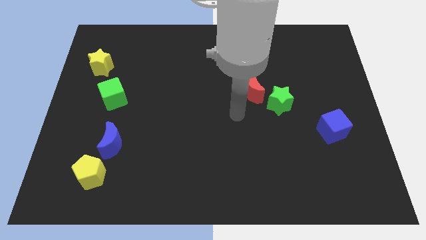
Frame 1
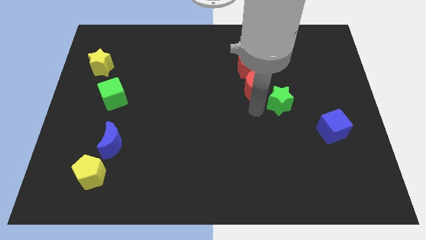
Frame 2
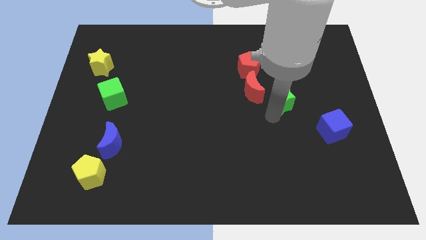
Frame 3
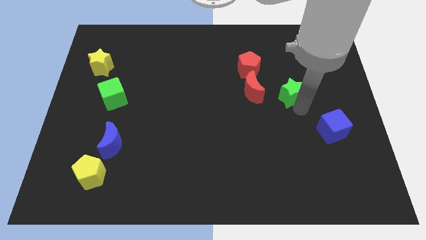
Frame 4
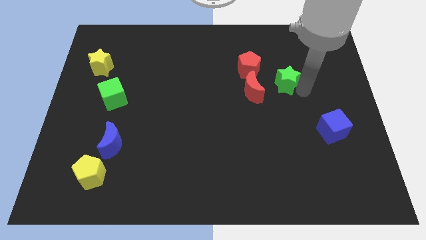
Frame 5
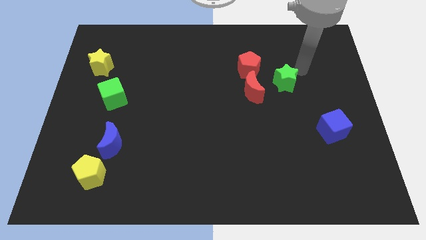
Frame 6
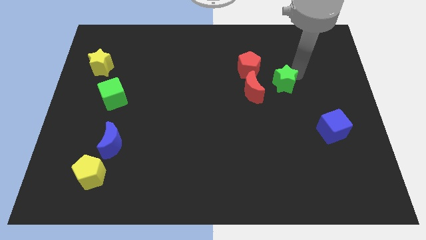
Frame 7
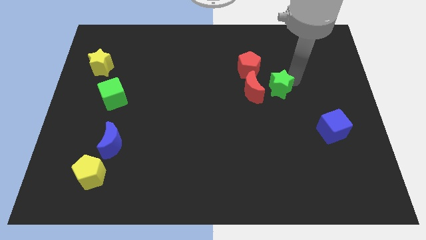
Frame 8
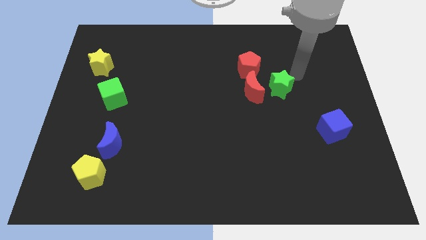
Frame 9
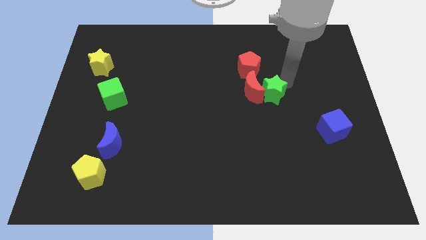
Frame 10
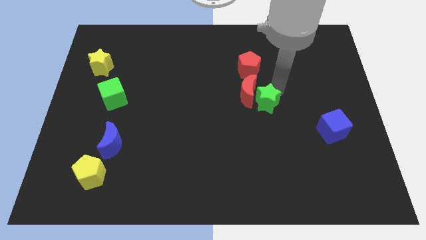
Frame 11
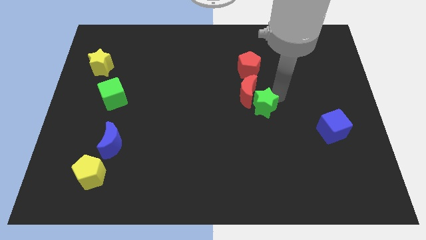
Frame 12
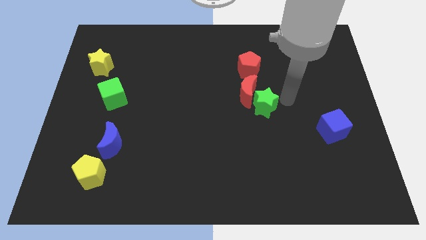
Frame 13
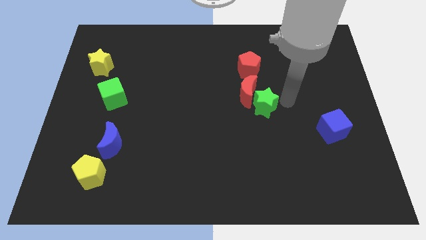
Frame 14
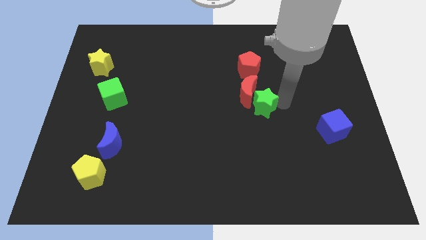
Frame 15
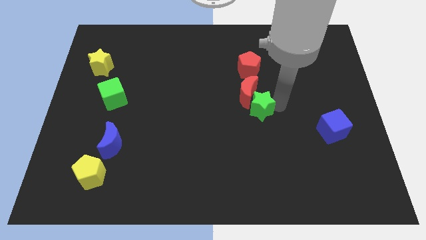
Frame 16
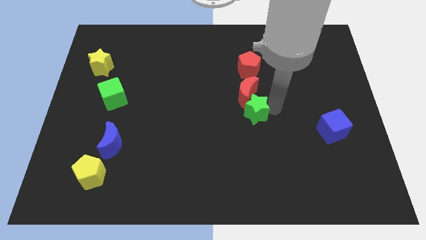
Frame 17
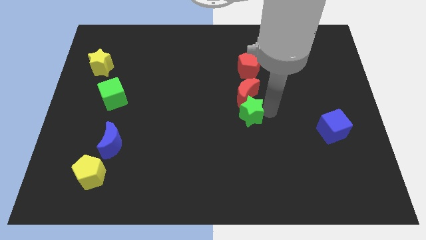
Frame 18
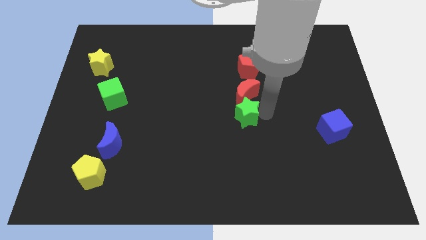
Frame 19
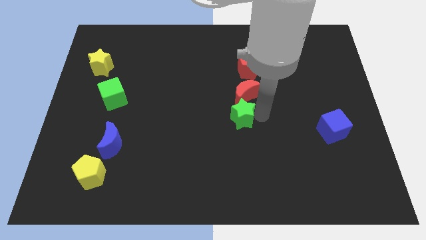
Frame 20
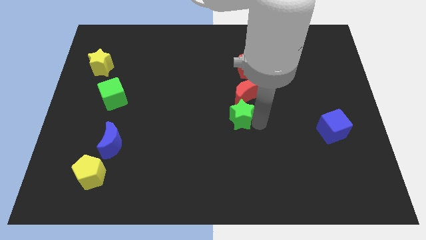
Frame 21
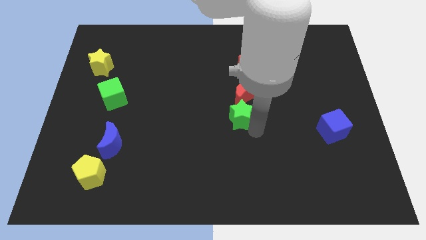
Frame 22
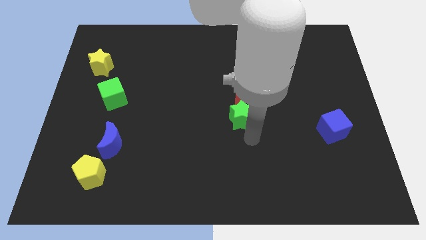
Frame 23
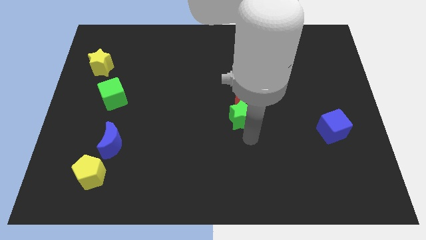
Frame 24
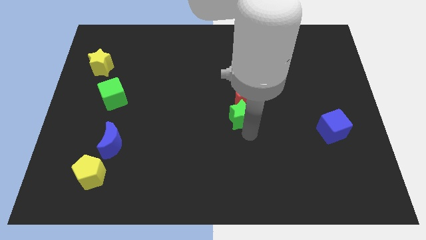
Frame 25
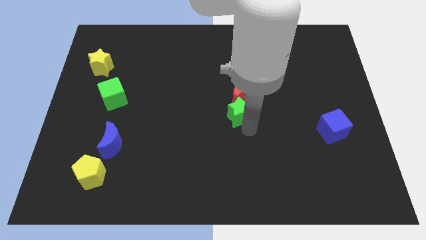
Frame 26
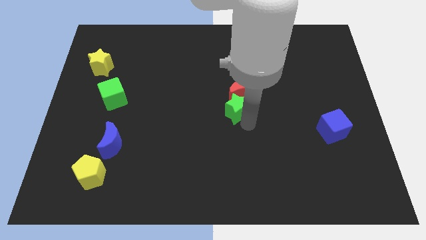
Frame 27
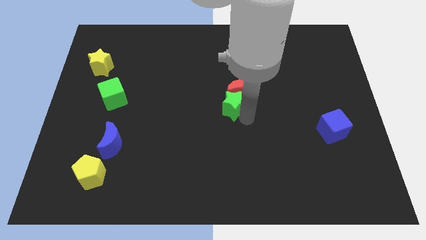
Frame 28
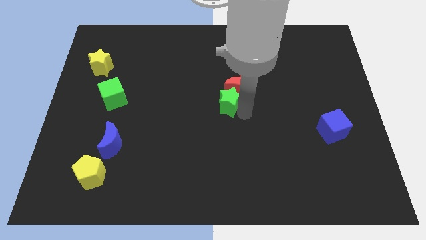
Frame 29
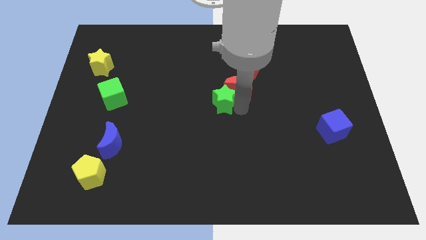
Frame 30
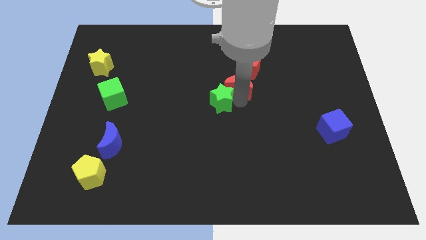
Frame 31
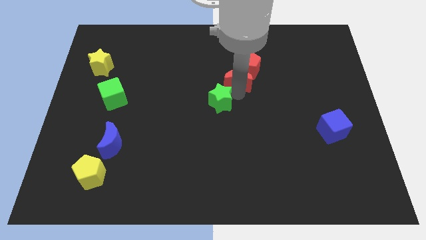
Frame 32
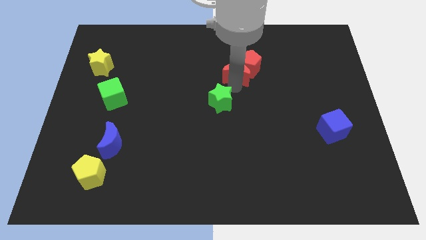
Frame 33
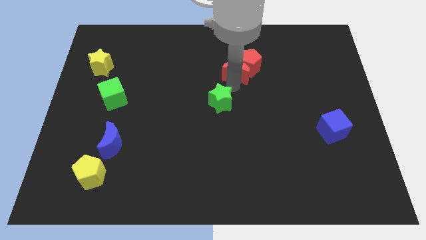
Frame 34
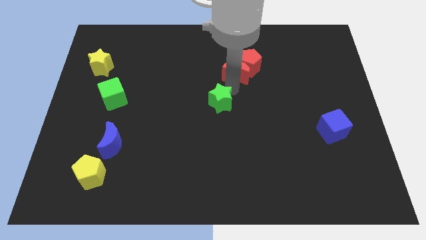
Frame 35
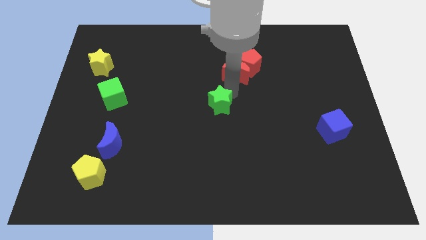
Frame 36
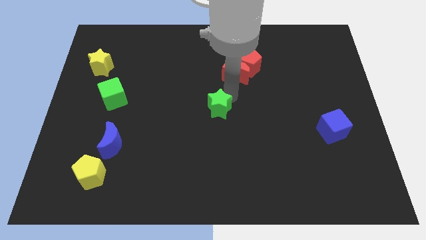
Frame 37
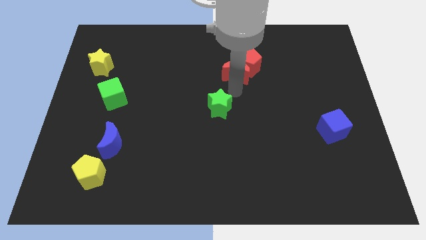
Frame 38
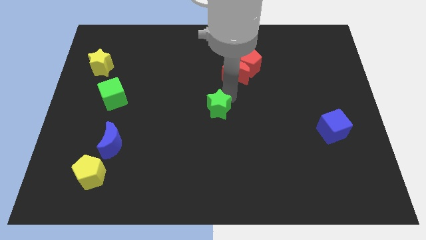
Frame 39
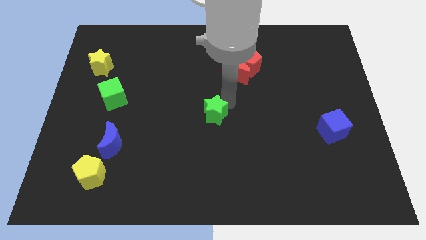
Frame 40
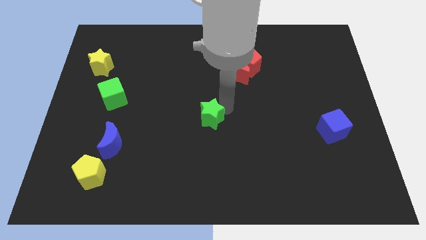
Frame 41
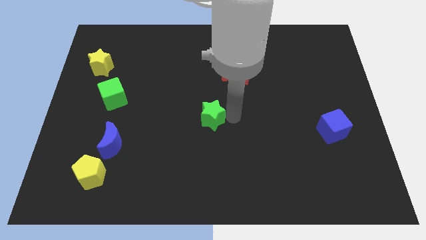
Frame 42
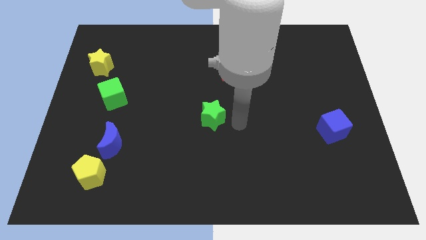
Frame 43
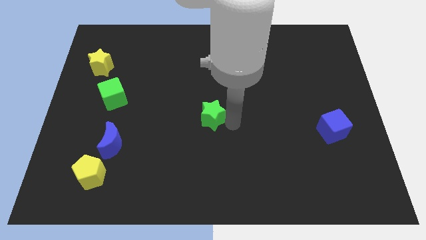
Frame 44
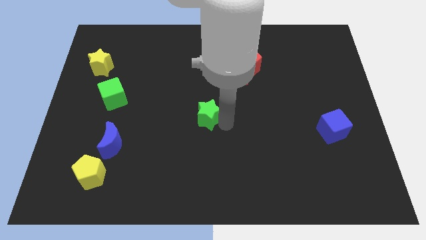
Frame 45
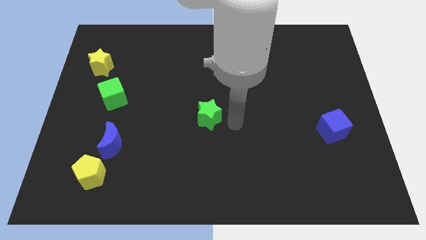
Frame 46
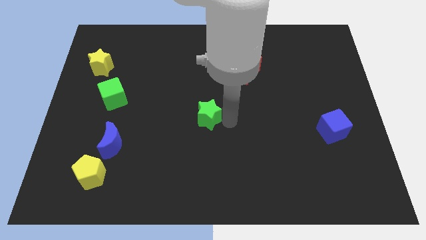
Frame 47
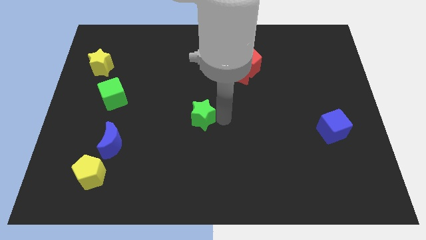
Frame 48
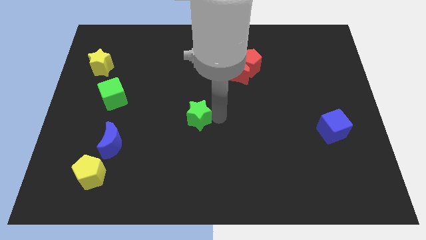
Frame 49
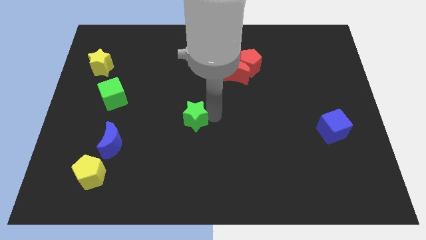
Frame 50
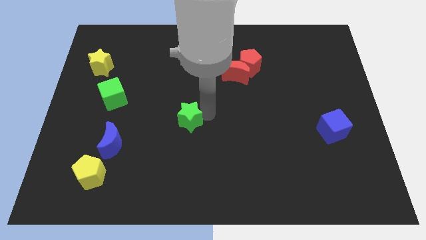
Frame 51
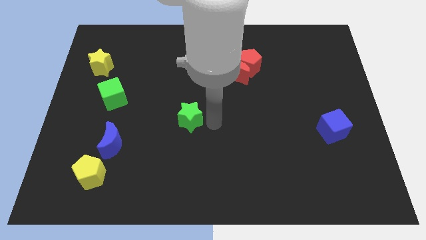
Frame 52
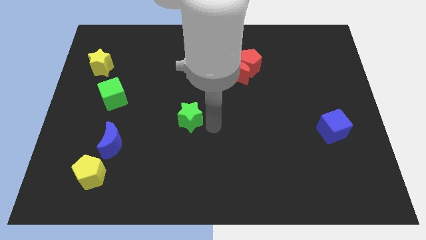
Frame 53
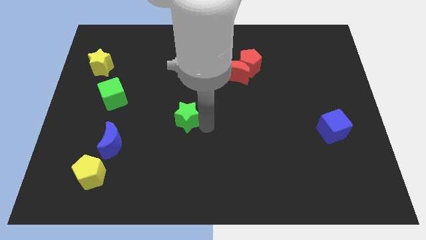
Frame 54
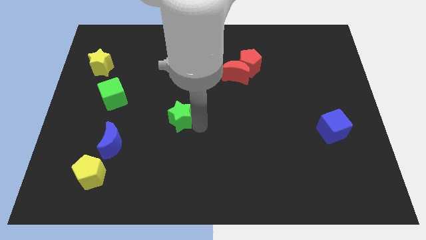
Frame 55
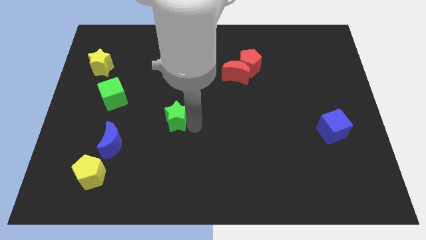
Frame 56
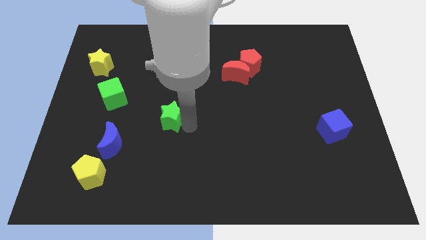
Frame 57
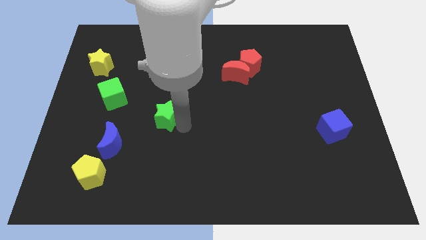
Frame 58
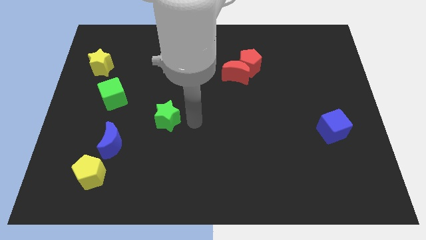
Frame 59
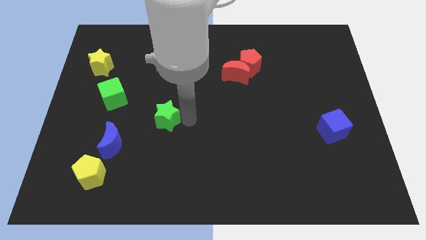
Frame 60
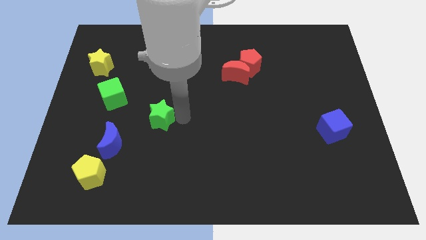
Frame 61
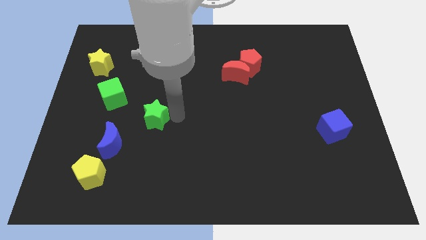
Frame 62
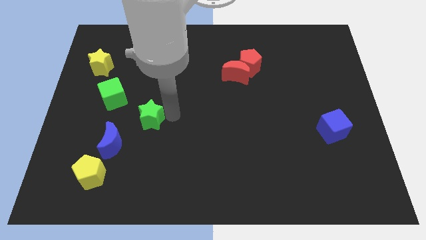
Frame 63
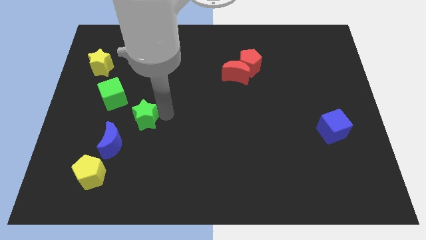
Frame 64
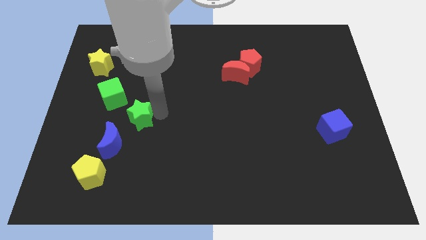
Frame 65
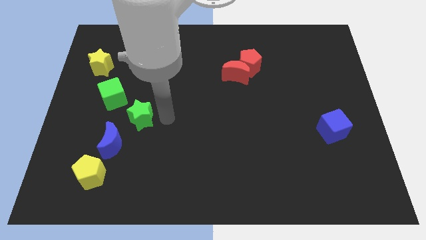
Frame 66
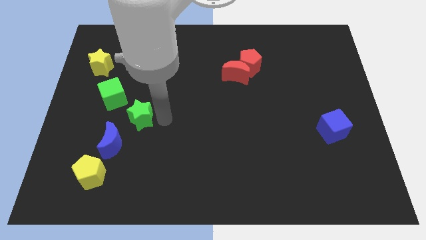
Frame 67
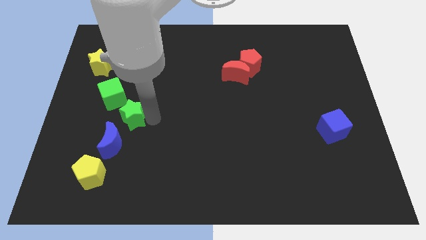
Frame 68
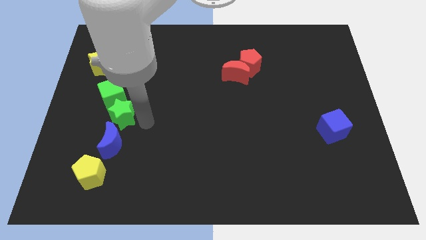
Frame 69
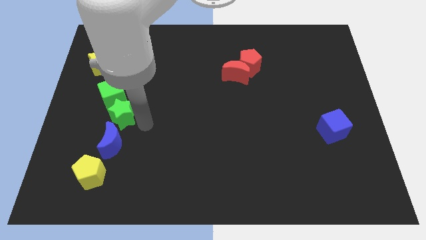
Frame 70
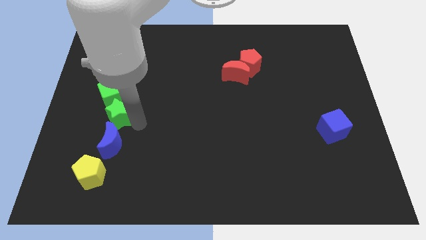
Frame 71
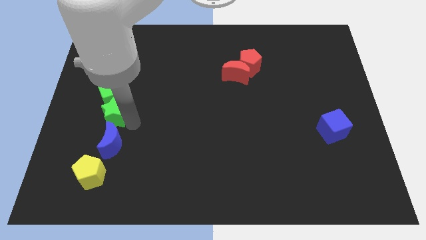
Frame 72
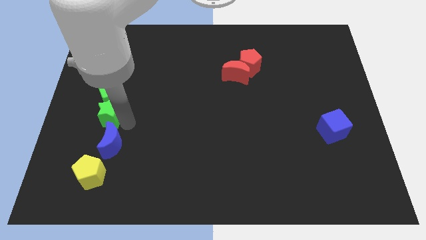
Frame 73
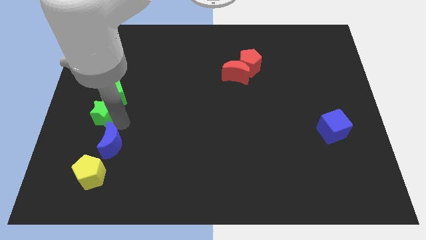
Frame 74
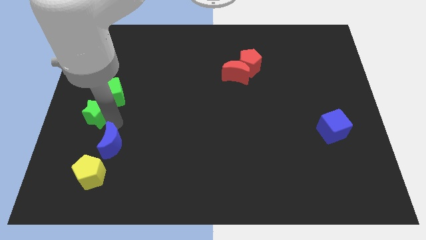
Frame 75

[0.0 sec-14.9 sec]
move the green star below the yellow star
